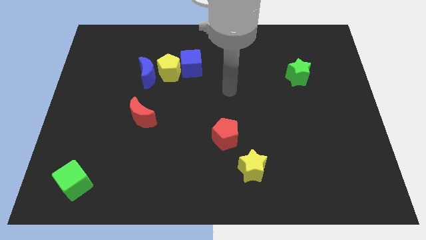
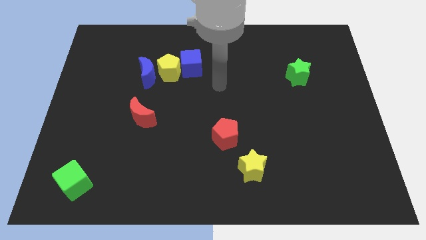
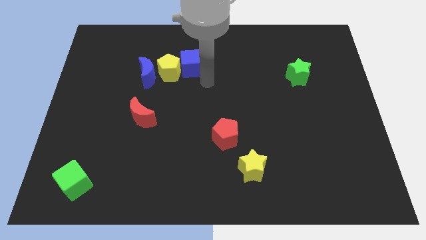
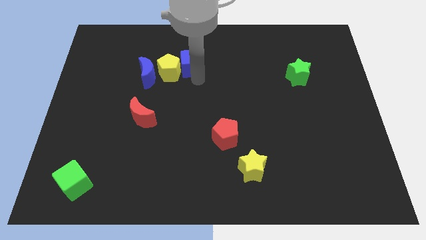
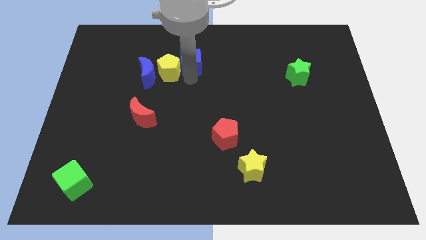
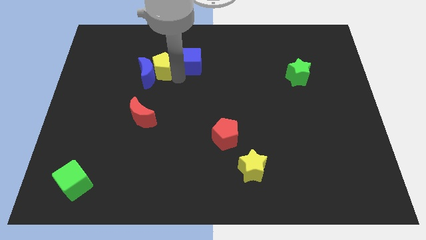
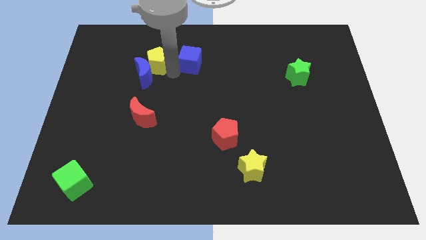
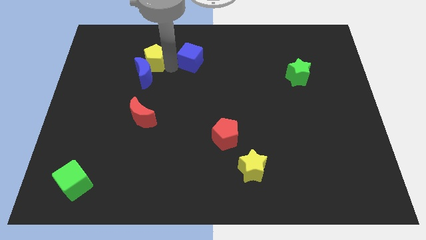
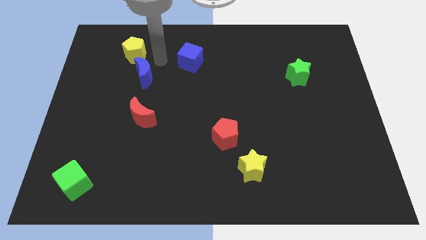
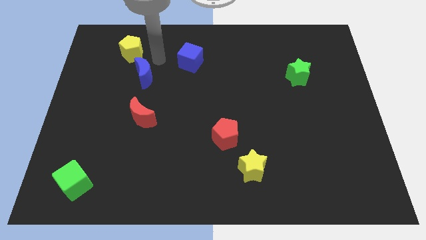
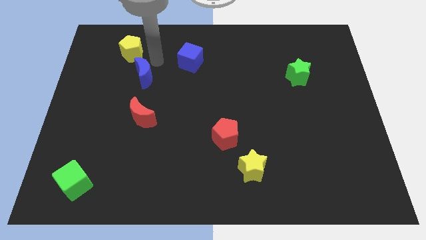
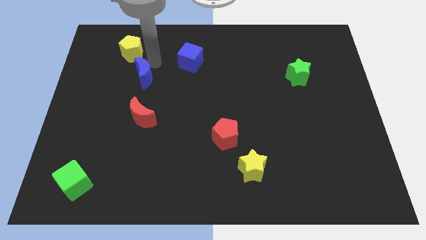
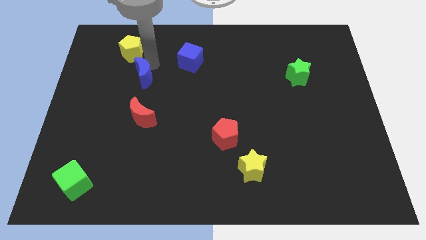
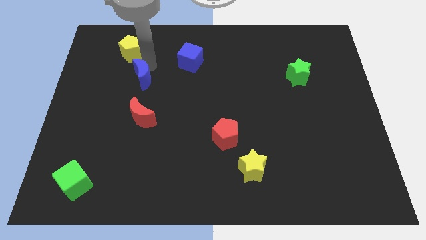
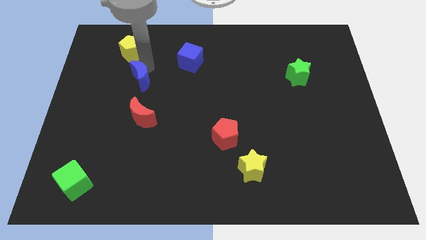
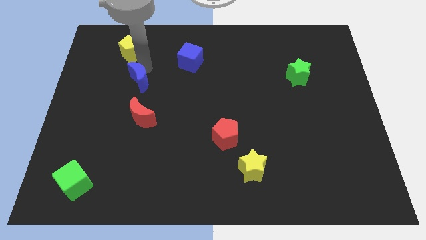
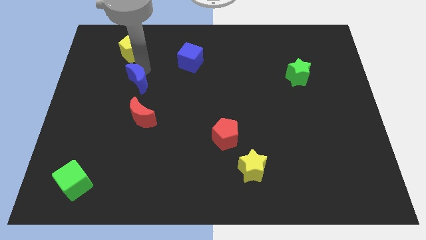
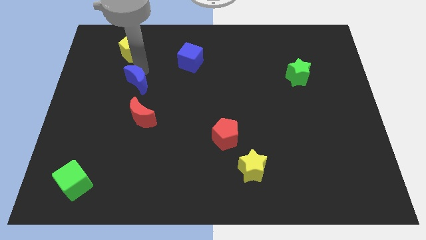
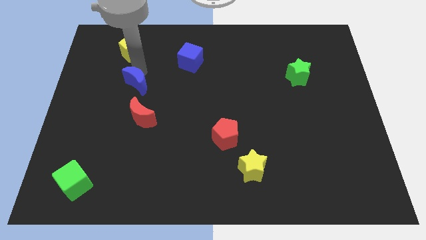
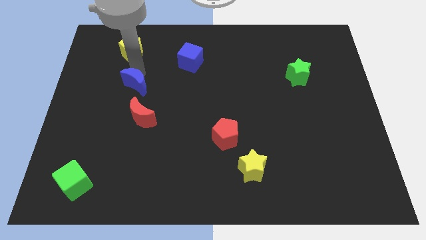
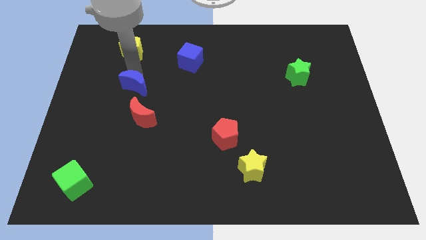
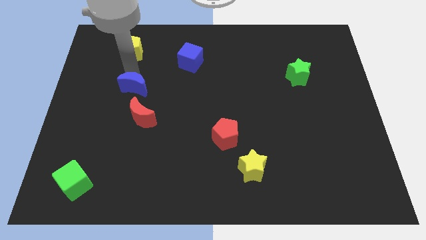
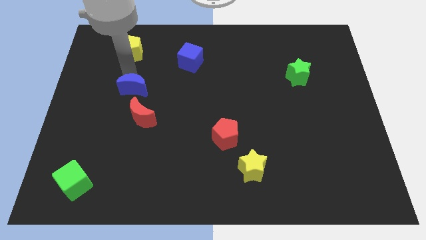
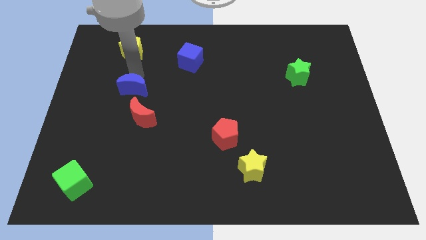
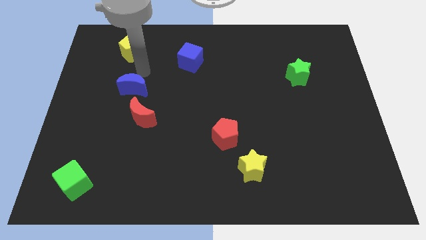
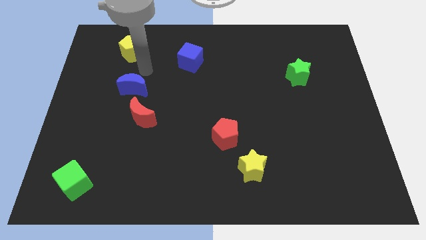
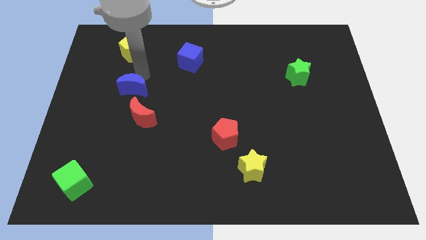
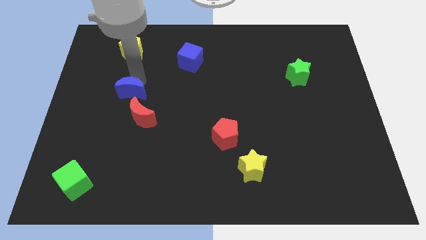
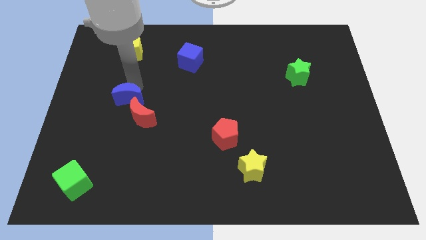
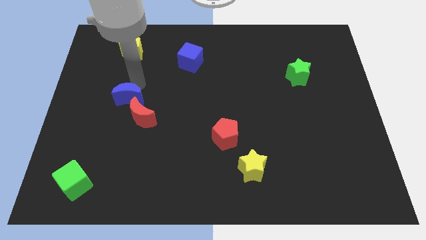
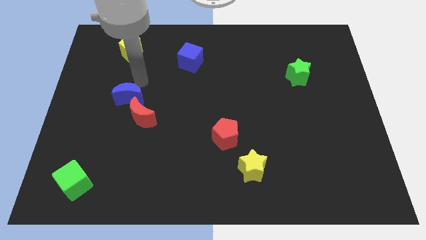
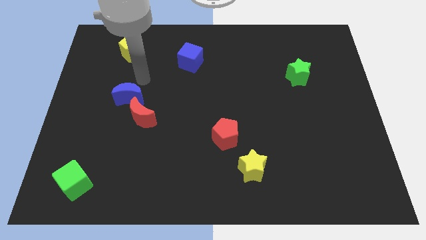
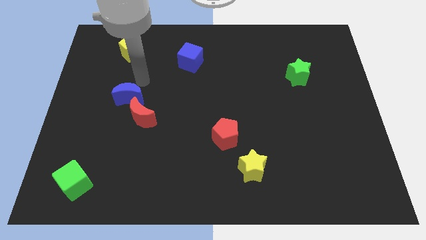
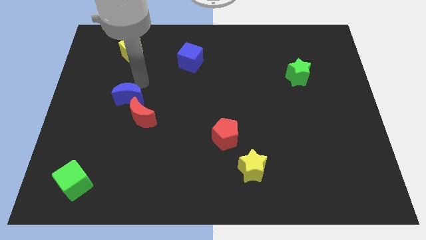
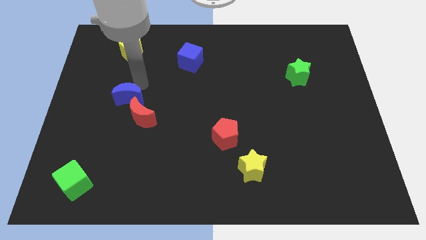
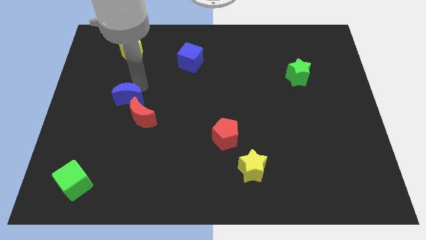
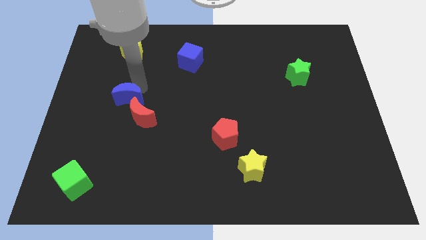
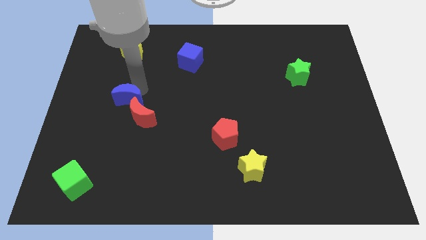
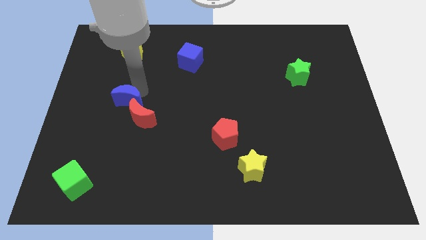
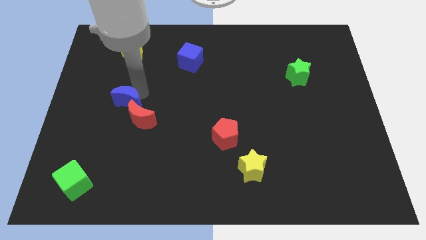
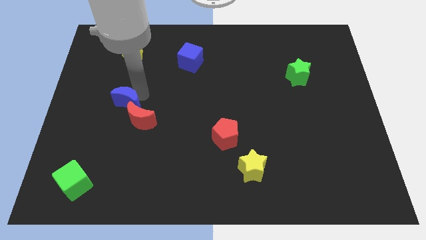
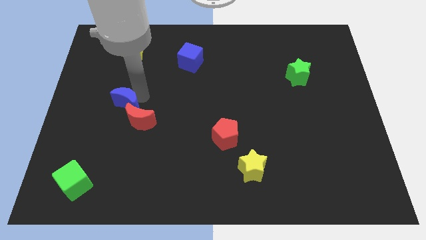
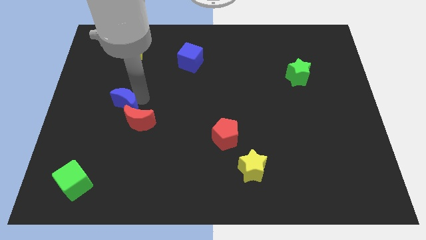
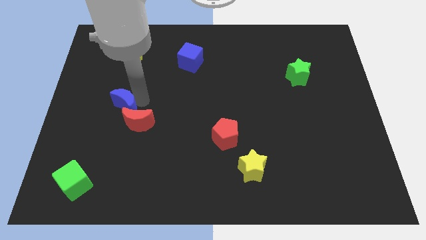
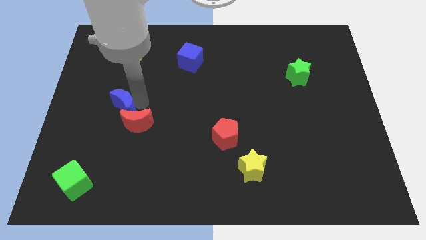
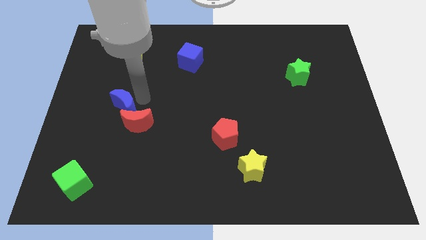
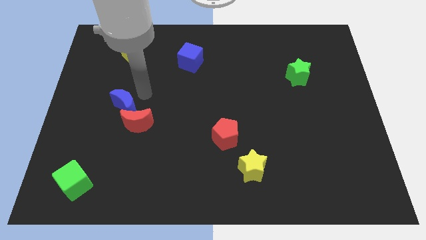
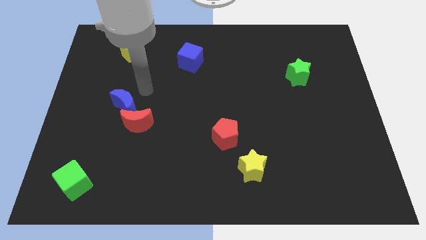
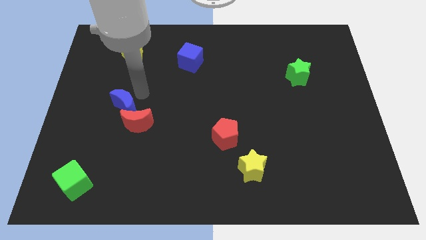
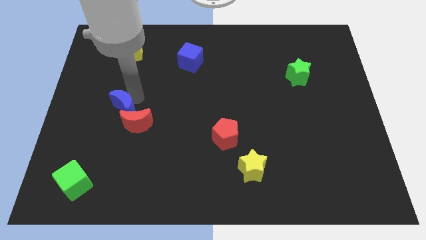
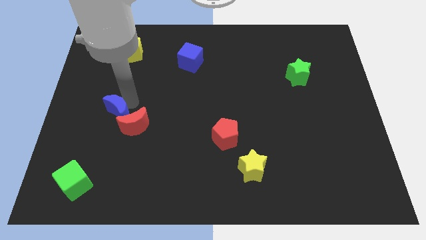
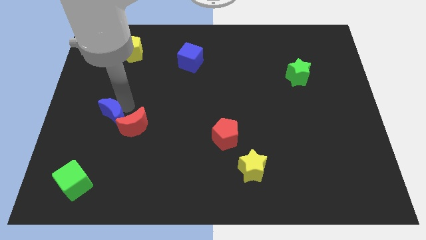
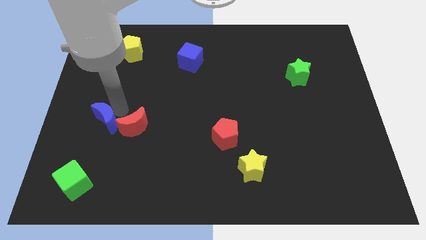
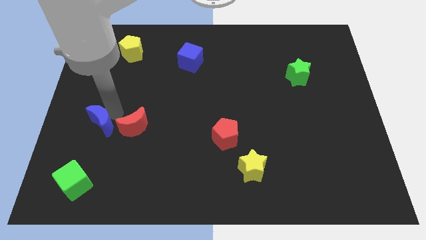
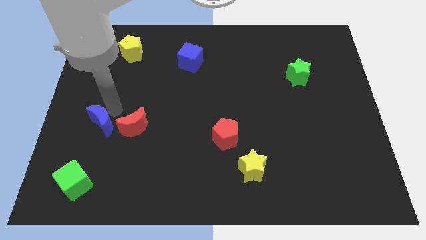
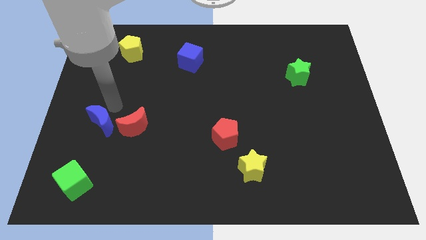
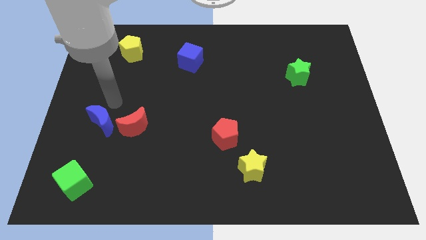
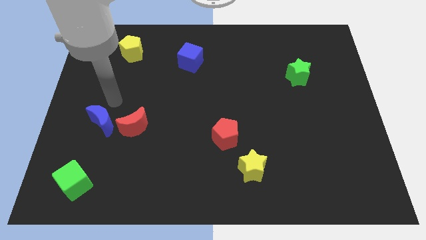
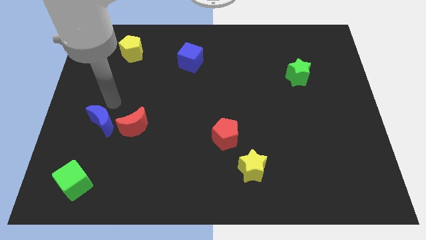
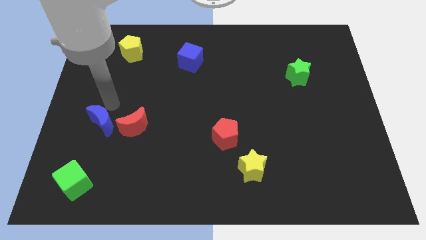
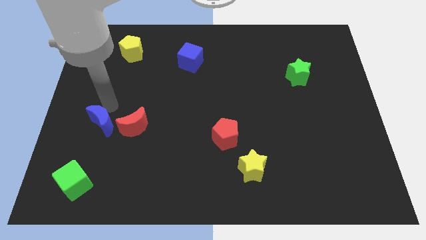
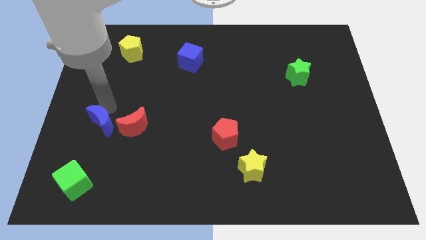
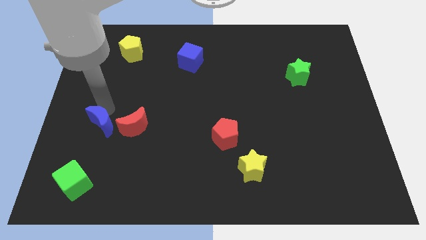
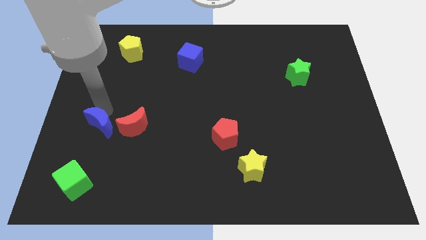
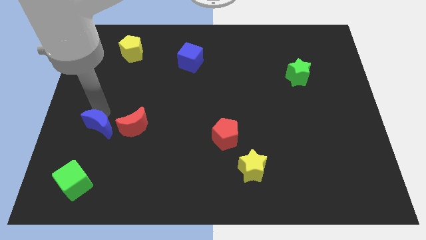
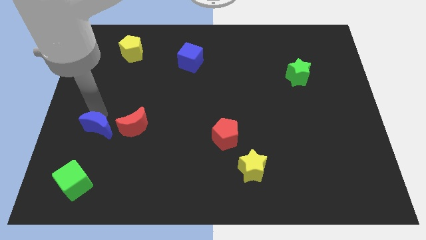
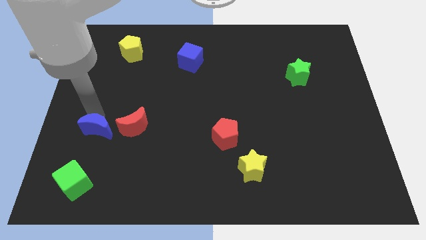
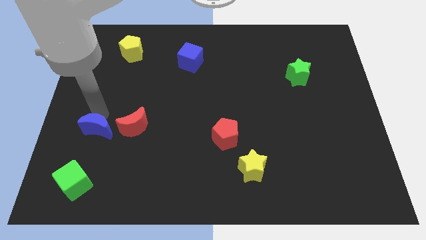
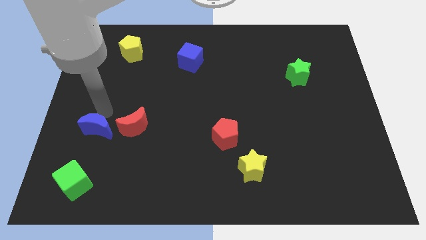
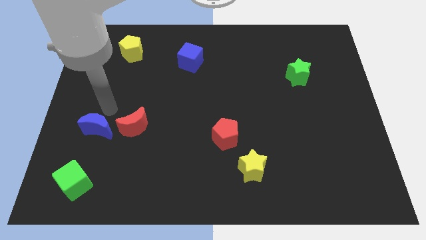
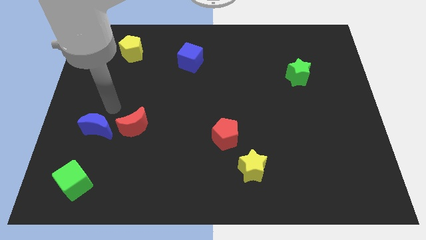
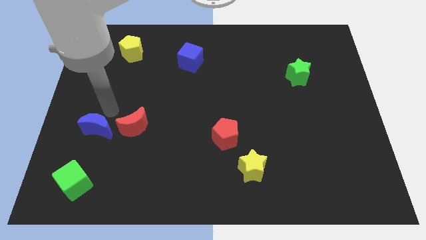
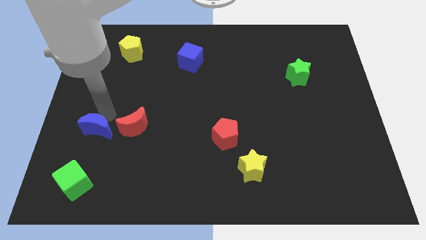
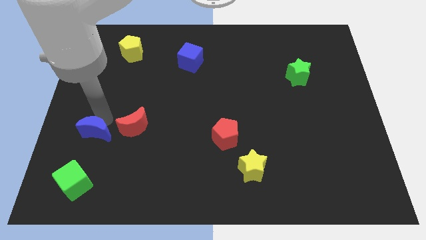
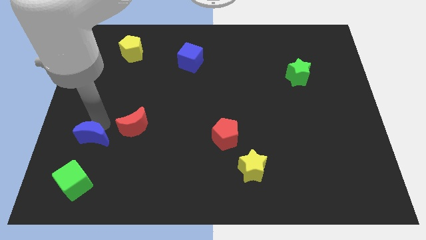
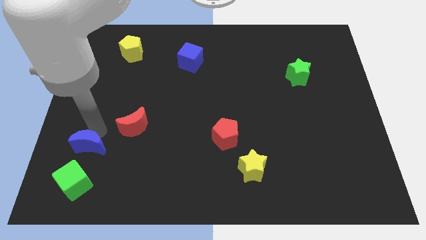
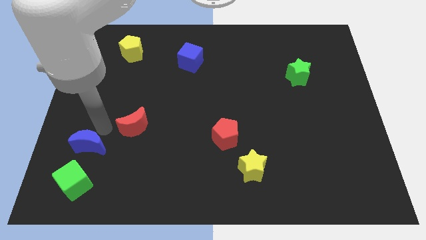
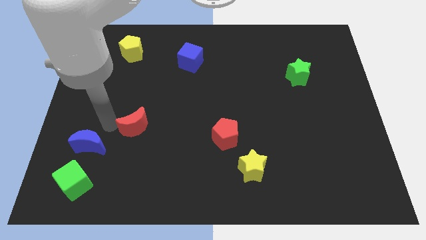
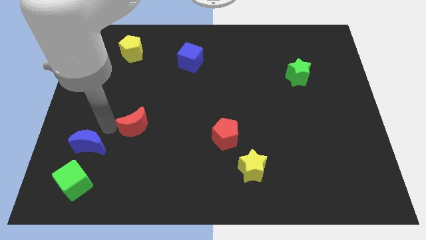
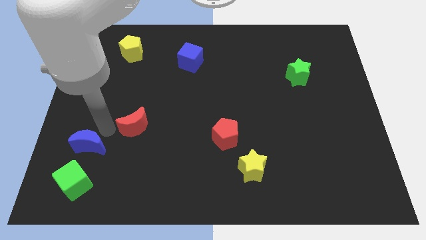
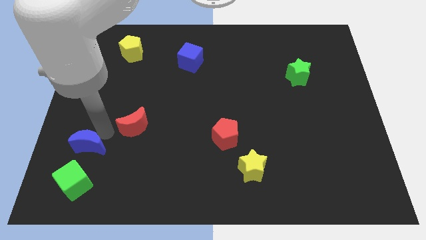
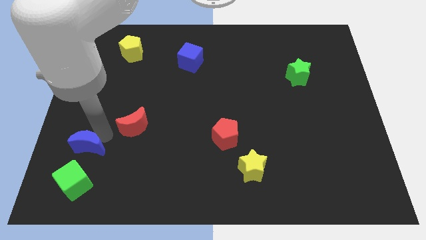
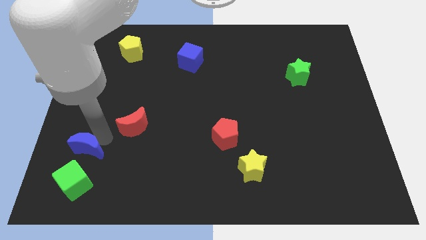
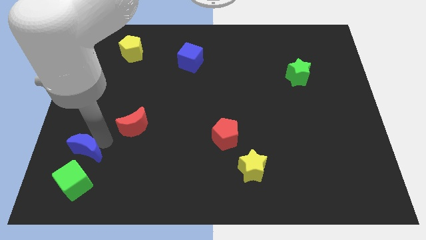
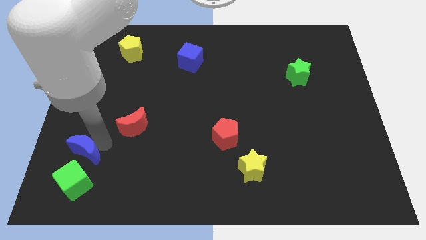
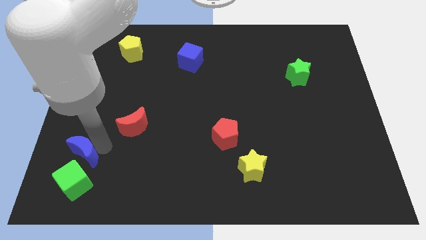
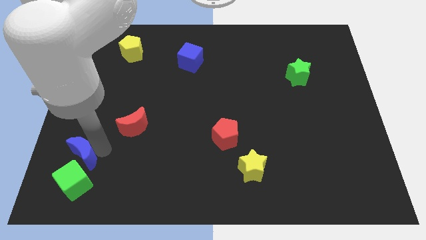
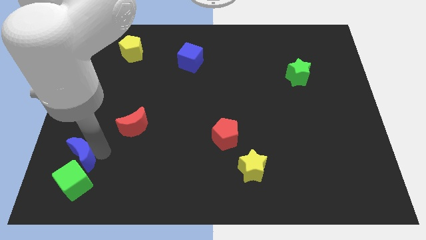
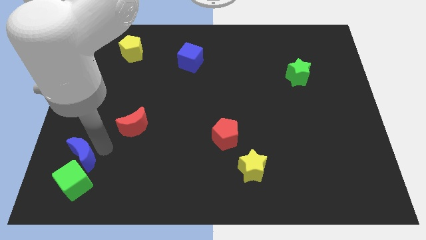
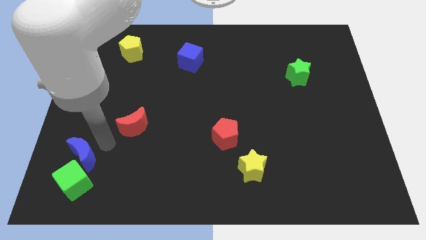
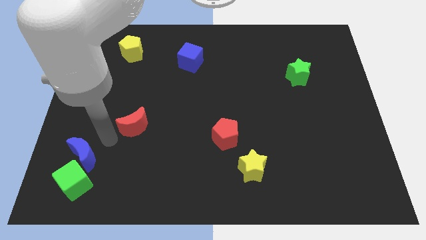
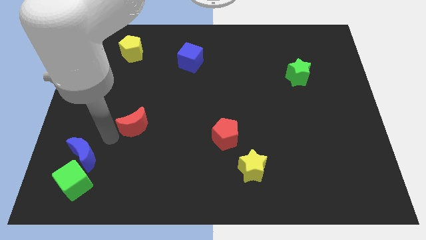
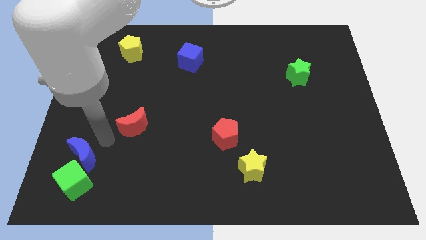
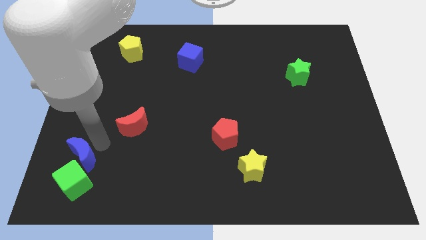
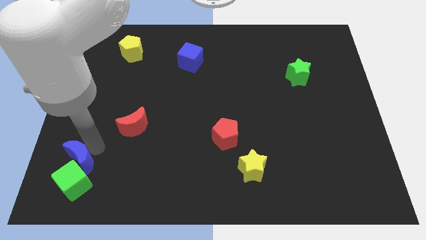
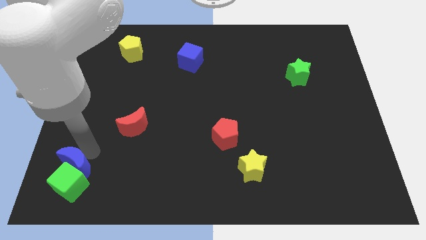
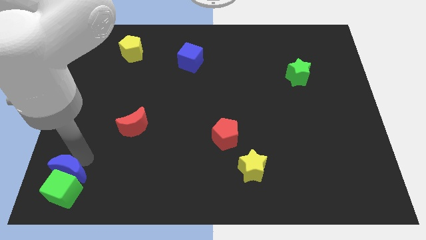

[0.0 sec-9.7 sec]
slide the blue moon to the bottom left corner
